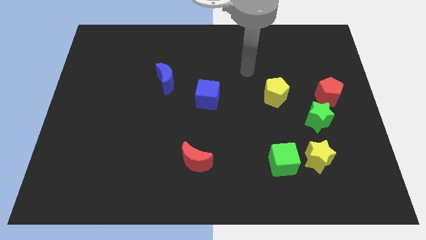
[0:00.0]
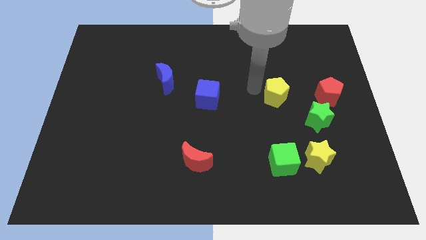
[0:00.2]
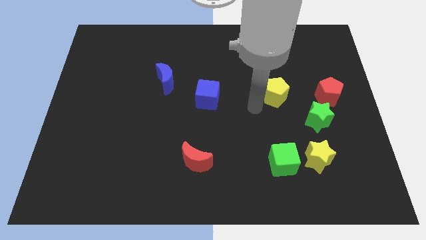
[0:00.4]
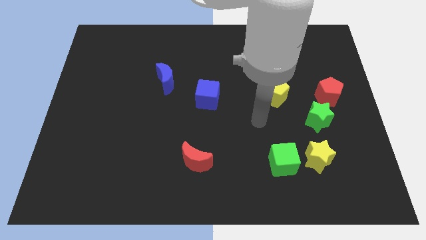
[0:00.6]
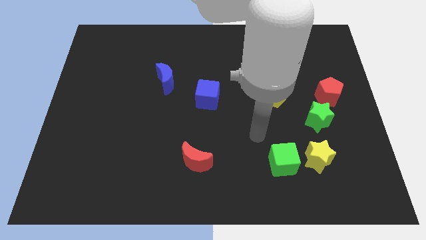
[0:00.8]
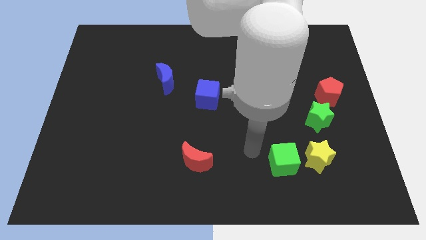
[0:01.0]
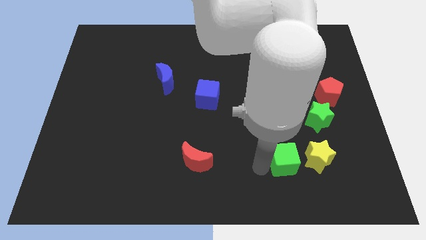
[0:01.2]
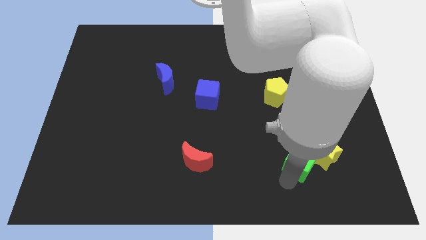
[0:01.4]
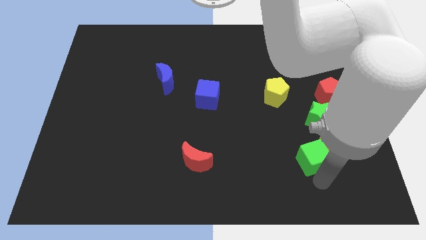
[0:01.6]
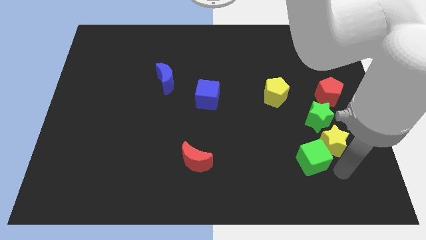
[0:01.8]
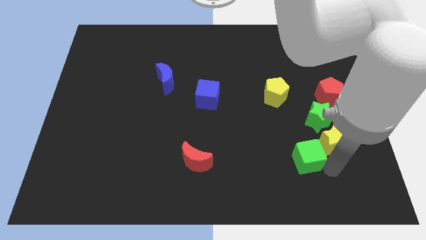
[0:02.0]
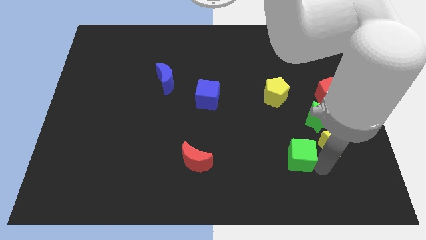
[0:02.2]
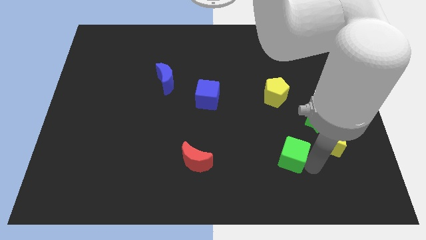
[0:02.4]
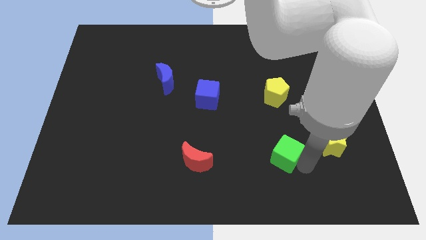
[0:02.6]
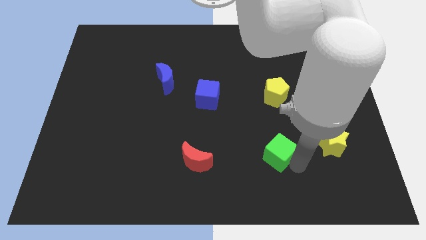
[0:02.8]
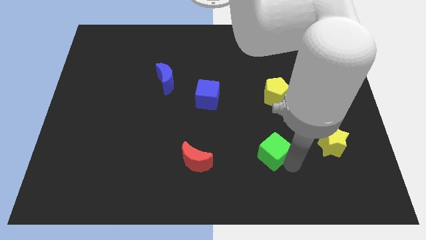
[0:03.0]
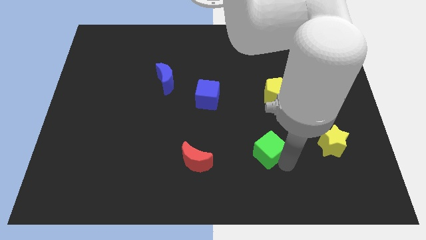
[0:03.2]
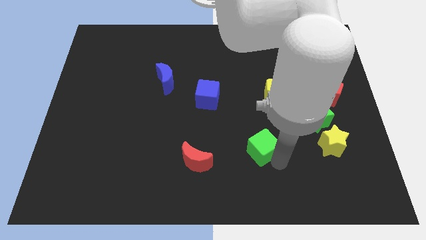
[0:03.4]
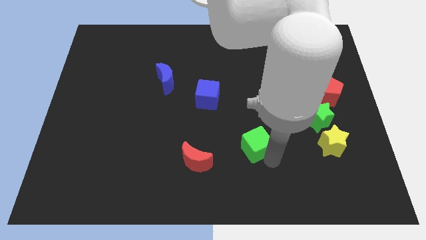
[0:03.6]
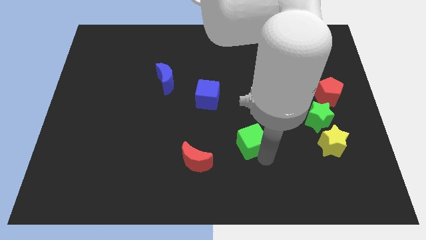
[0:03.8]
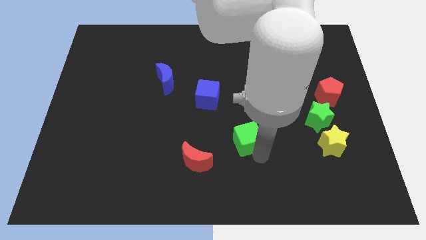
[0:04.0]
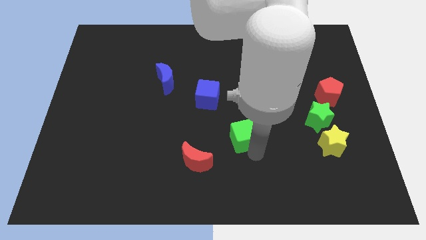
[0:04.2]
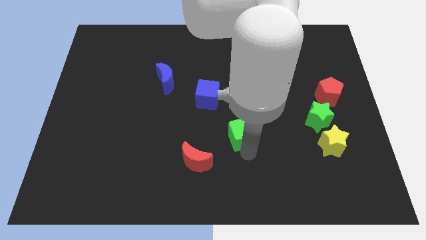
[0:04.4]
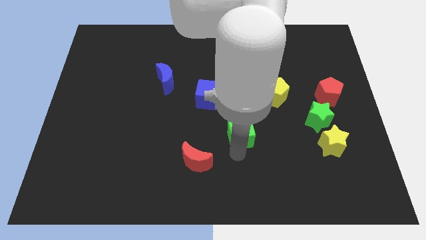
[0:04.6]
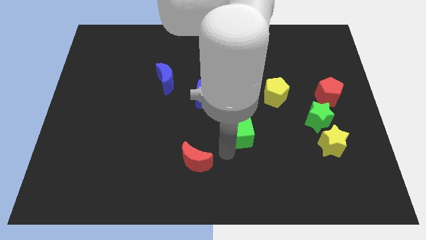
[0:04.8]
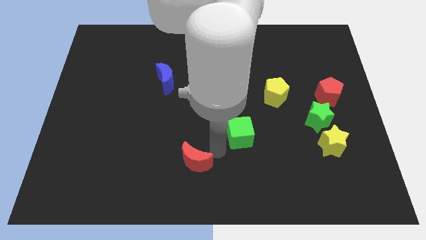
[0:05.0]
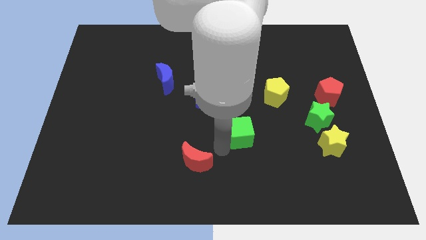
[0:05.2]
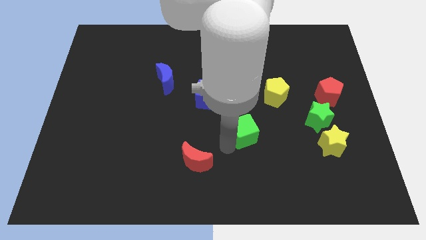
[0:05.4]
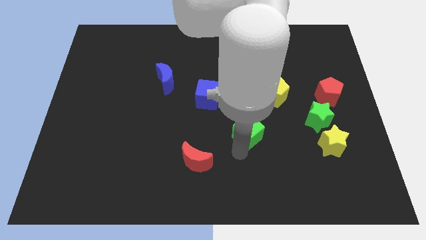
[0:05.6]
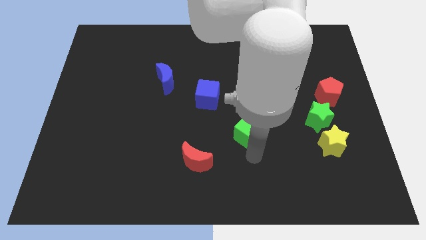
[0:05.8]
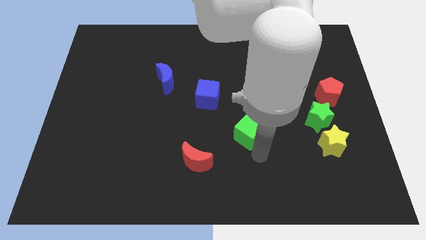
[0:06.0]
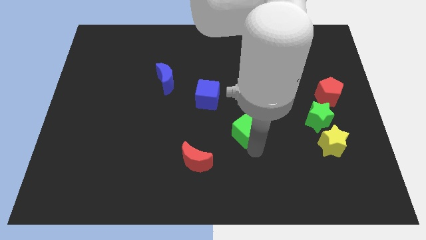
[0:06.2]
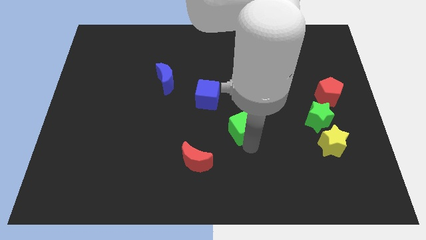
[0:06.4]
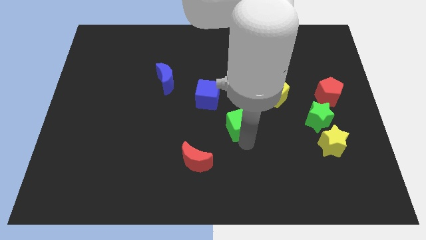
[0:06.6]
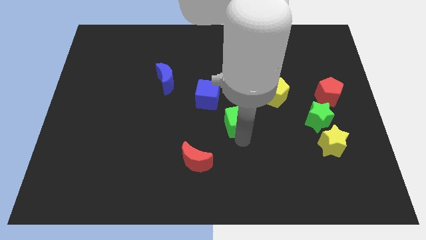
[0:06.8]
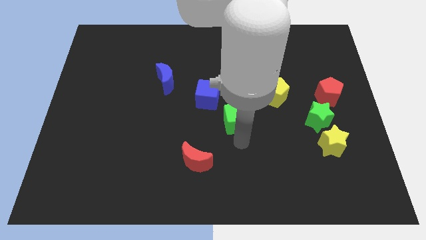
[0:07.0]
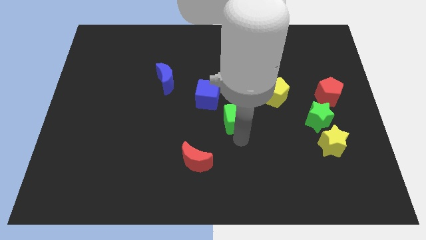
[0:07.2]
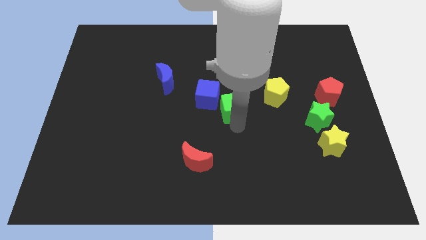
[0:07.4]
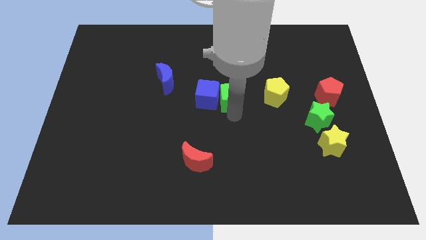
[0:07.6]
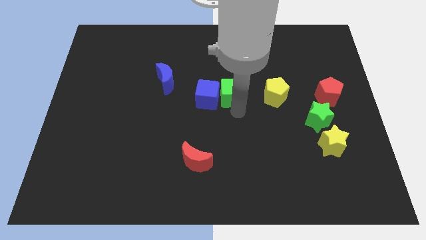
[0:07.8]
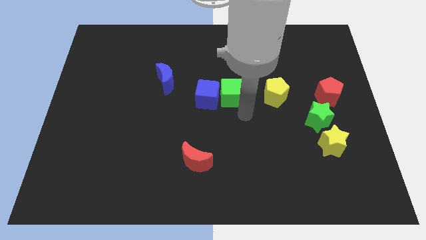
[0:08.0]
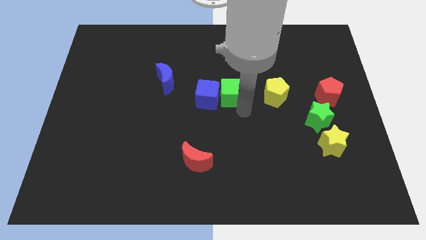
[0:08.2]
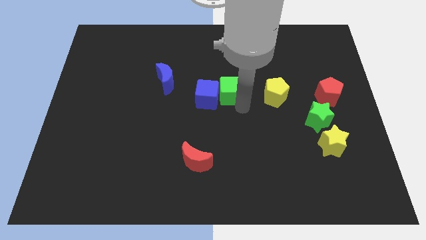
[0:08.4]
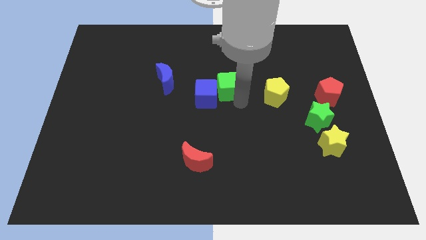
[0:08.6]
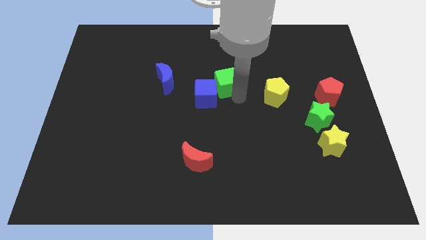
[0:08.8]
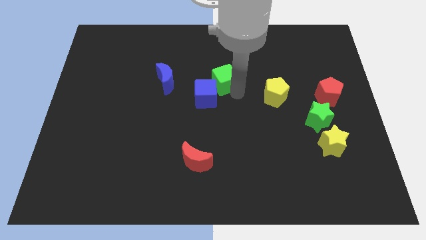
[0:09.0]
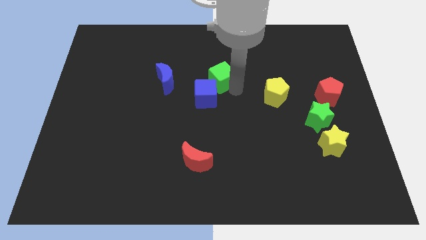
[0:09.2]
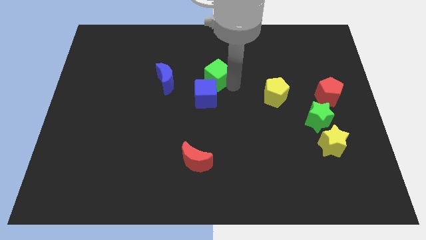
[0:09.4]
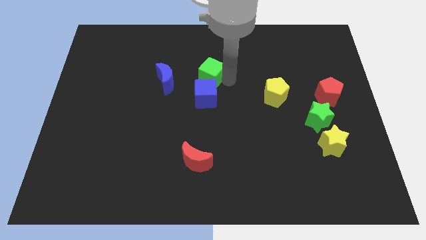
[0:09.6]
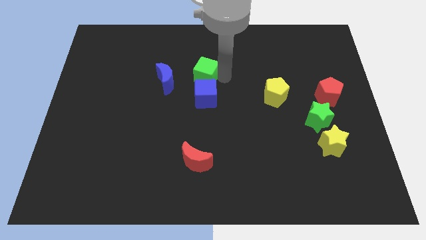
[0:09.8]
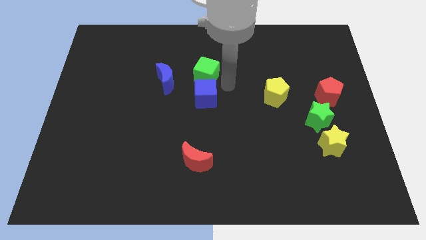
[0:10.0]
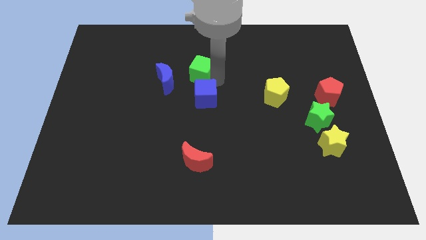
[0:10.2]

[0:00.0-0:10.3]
slide the green cube to the top right of the blue moon

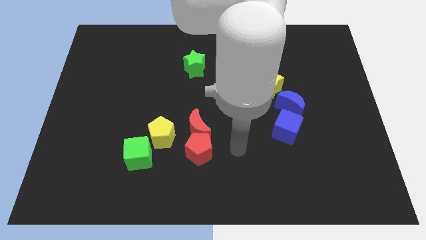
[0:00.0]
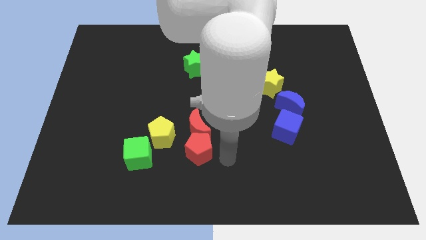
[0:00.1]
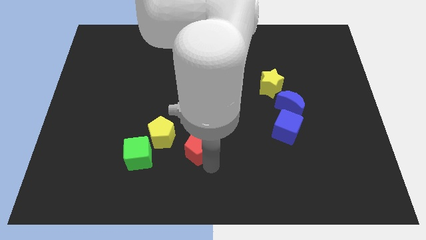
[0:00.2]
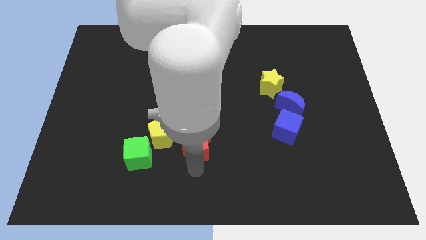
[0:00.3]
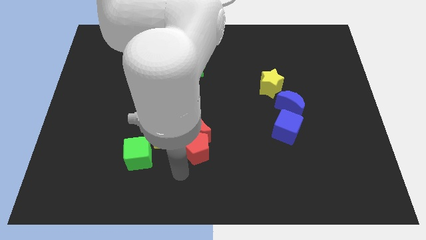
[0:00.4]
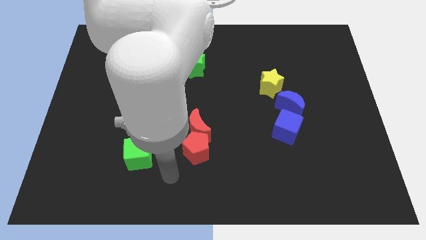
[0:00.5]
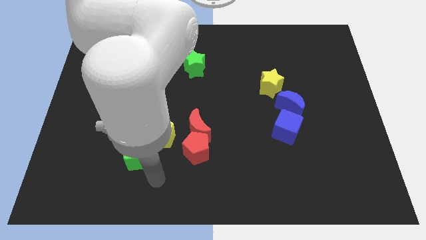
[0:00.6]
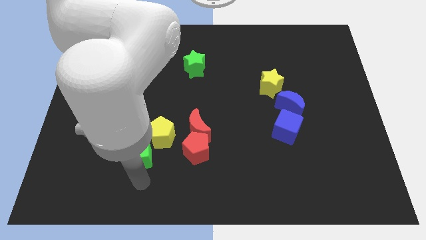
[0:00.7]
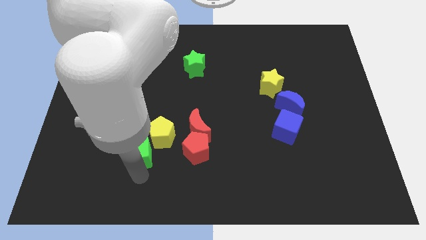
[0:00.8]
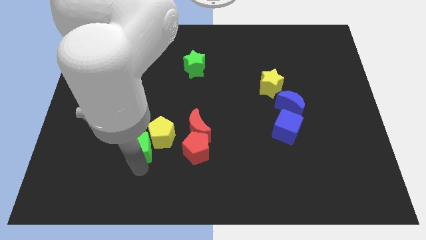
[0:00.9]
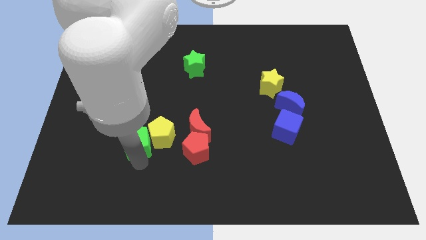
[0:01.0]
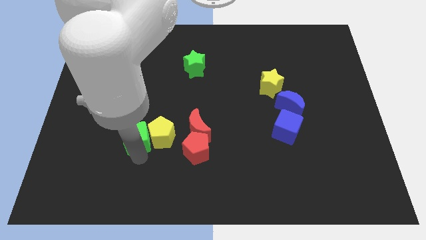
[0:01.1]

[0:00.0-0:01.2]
slide the green cube diagonally up and to the left of the yellow pentagon
